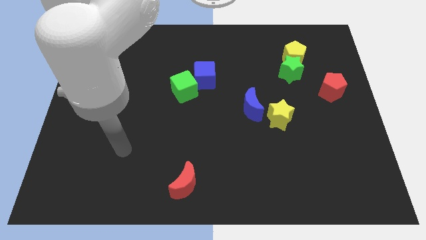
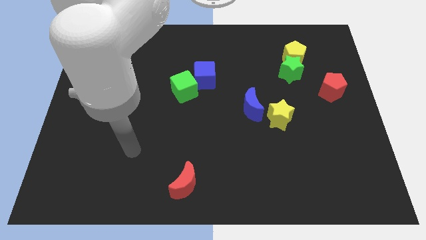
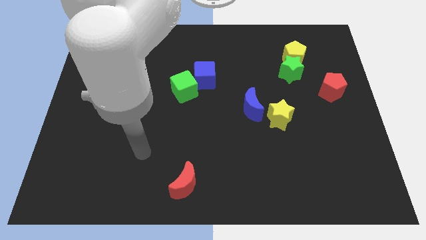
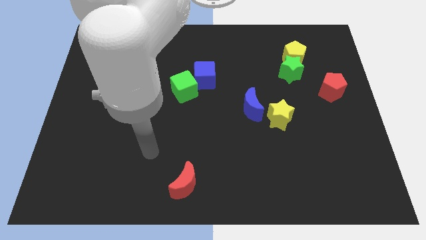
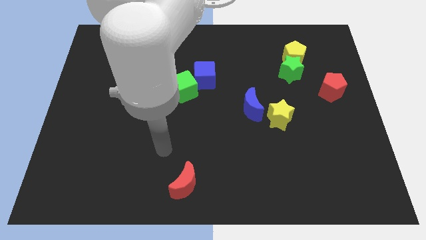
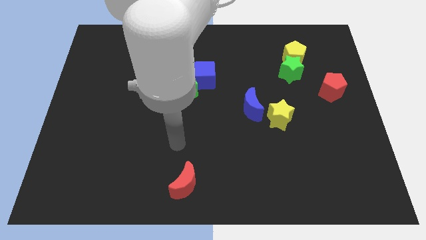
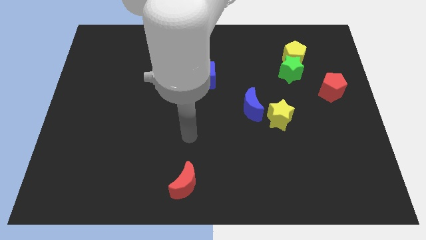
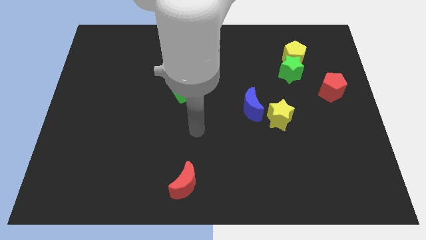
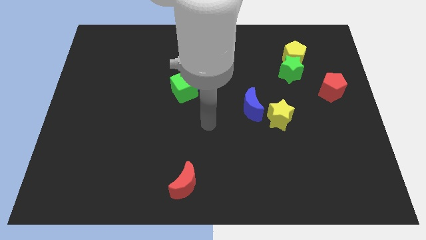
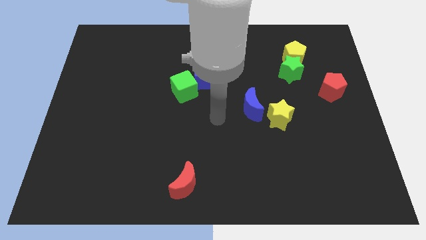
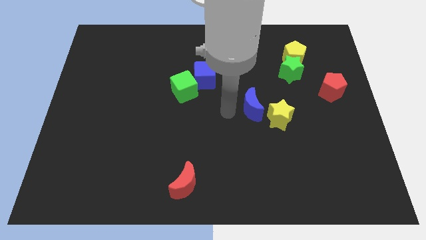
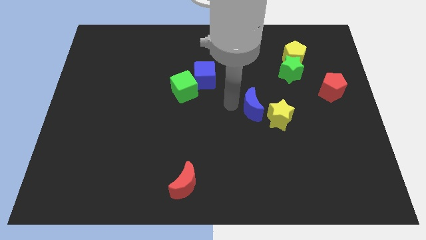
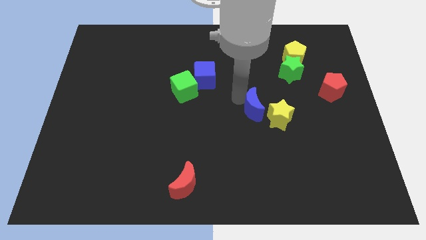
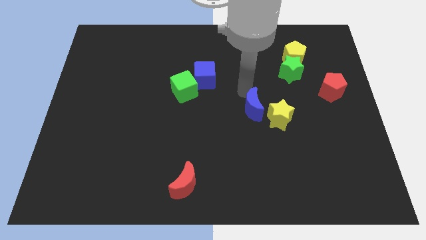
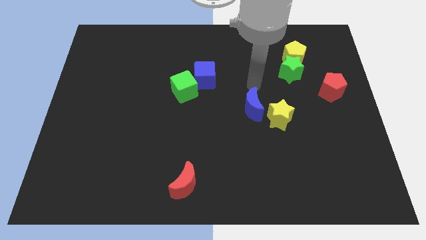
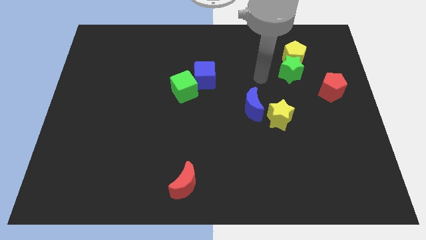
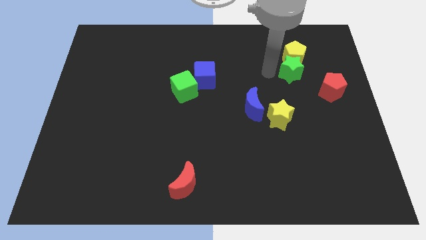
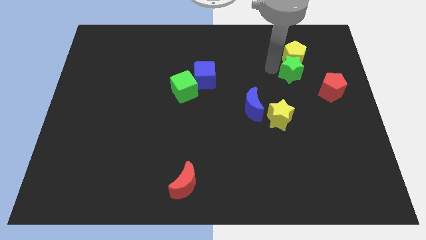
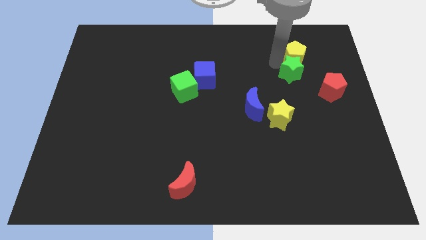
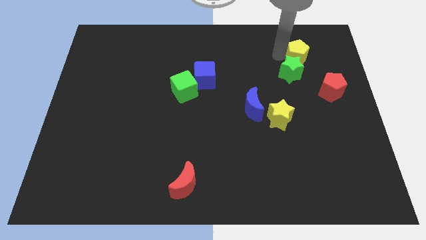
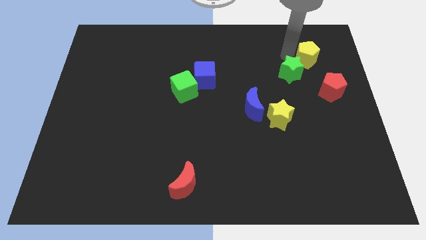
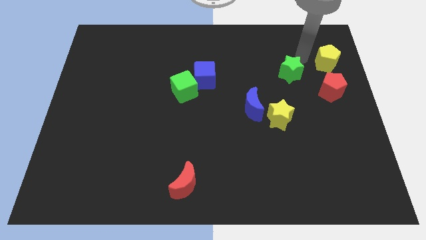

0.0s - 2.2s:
pull the green star apart from the yellow pentagon

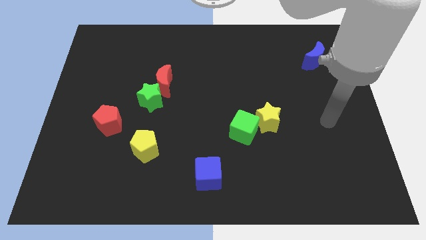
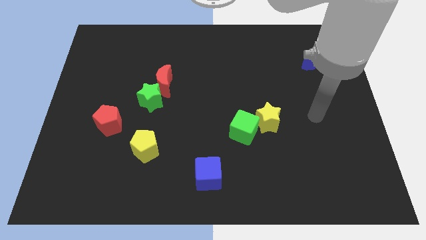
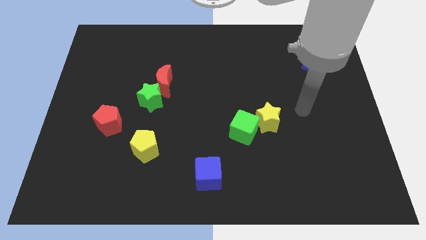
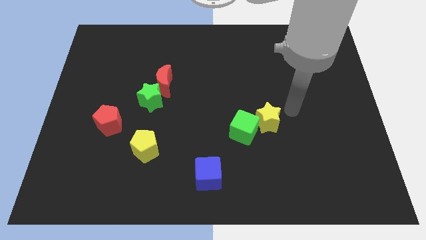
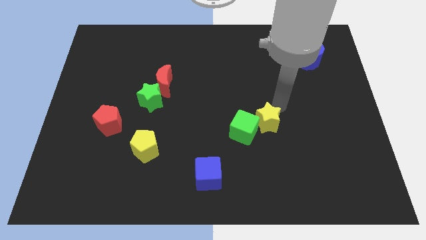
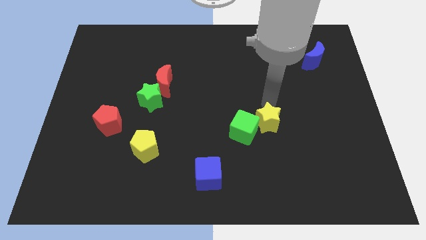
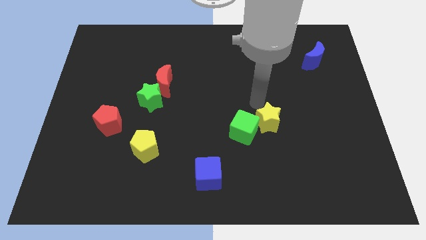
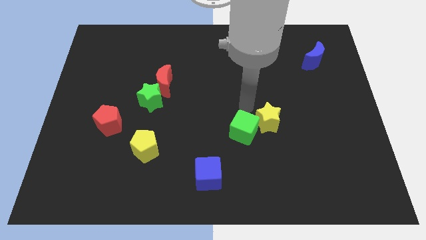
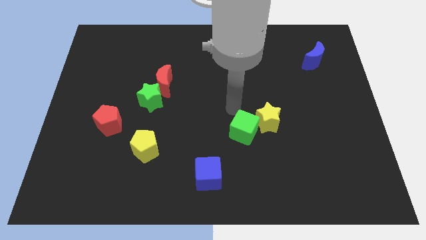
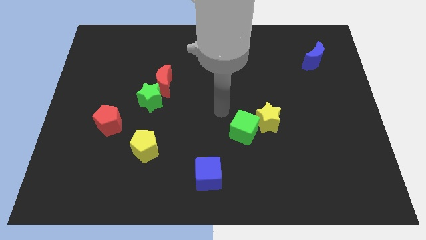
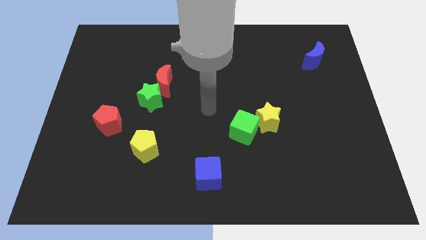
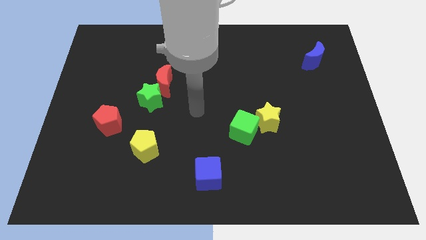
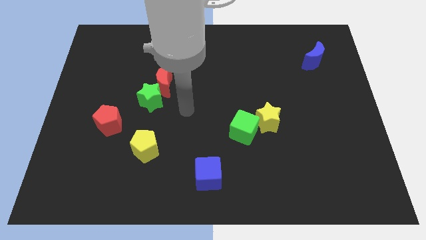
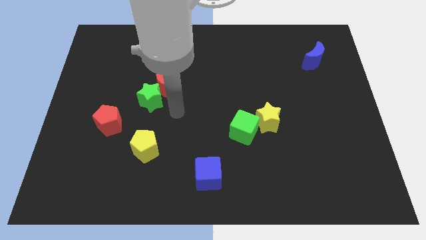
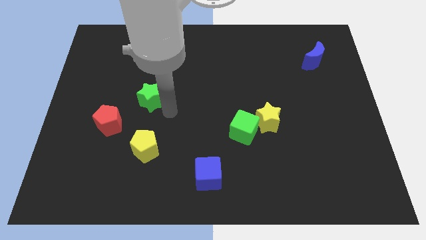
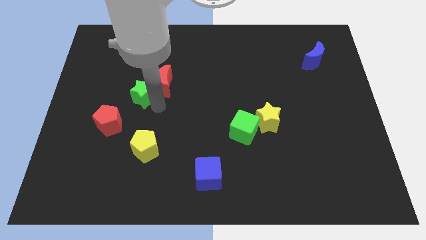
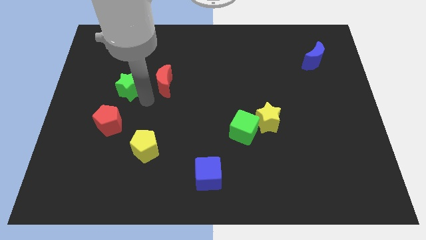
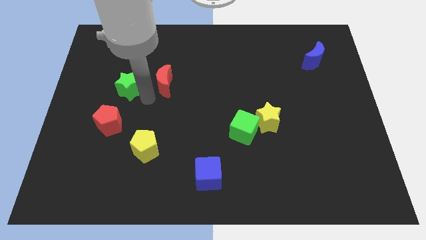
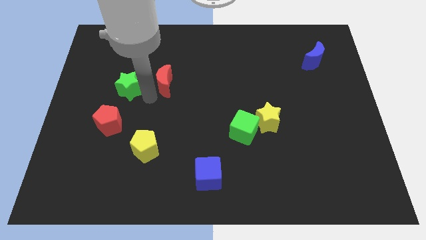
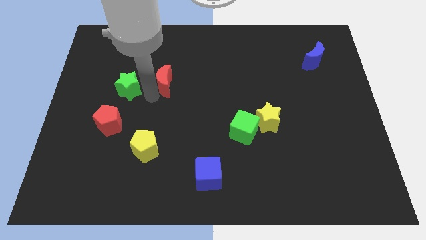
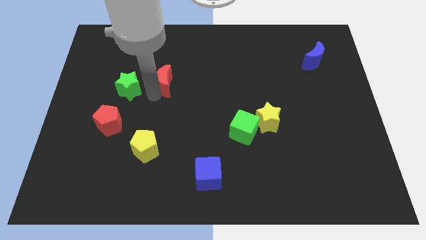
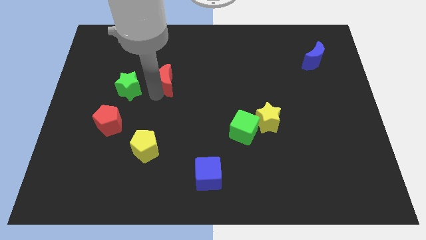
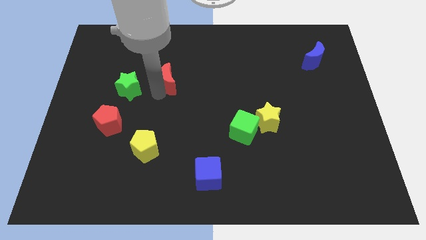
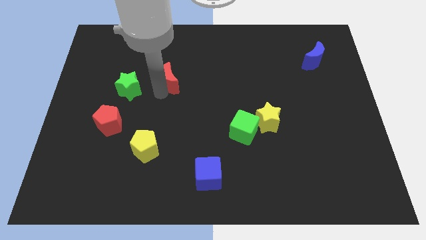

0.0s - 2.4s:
separate the red moon from the green star

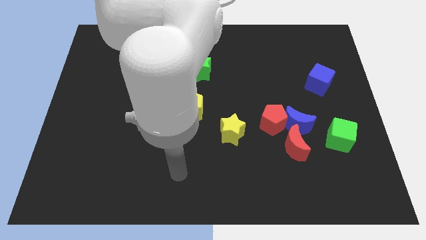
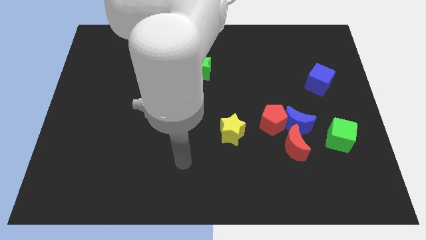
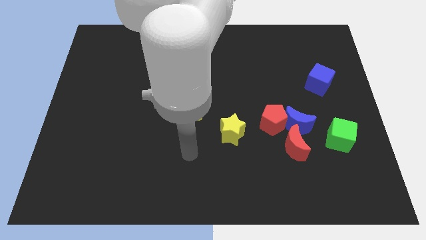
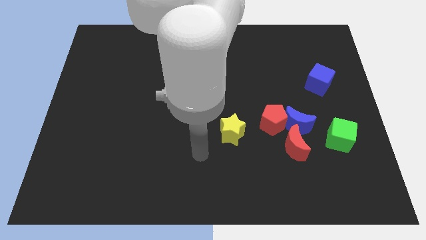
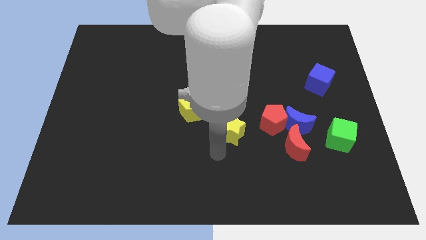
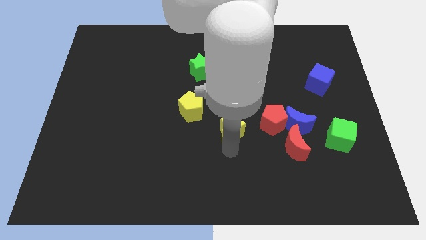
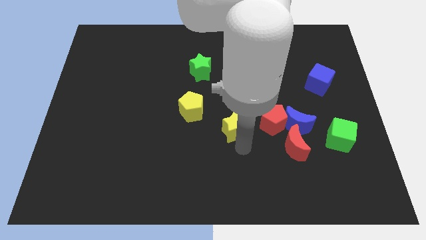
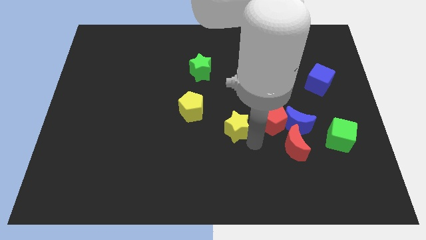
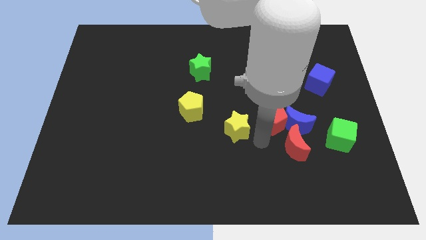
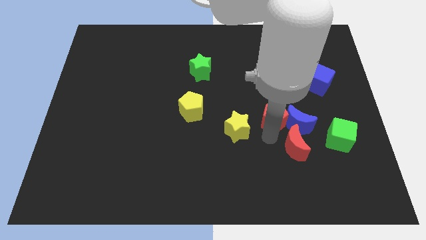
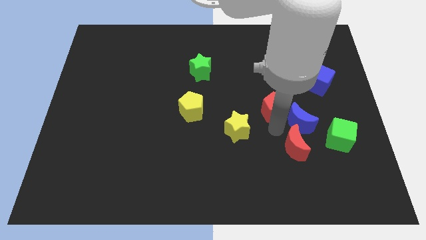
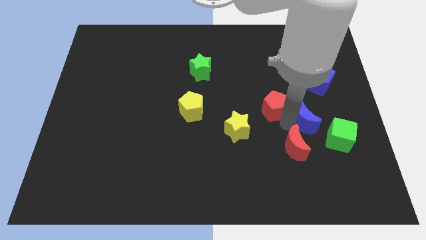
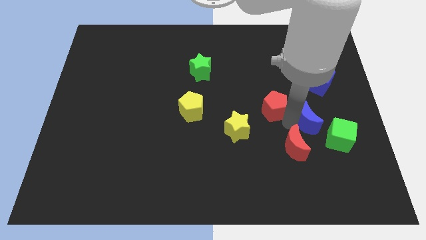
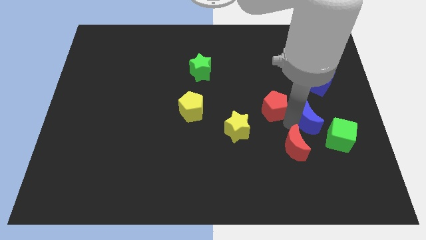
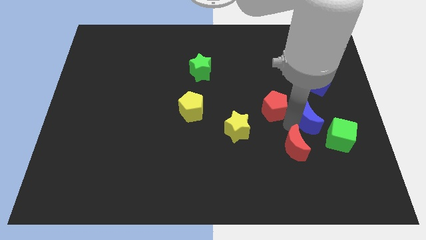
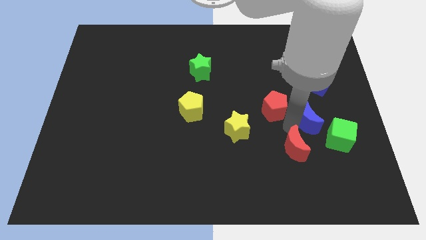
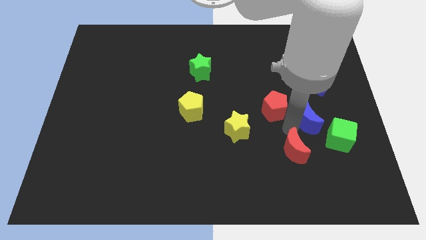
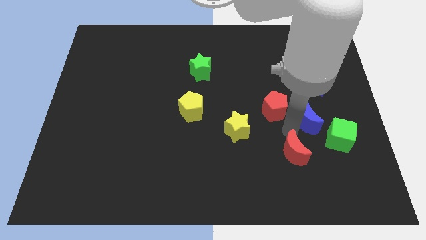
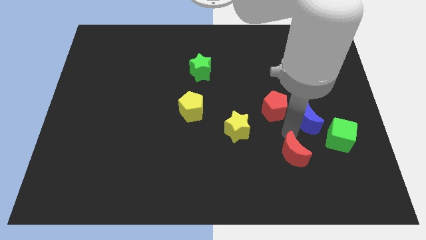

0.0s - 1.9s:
pull the red moon apart from the blue moon and red pentagon

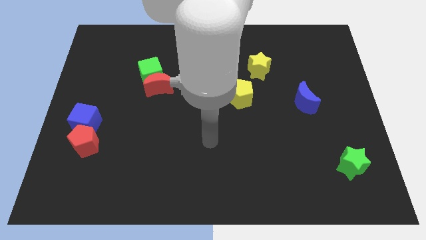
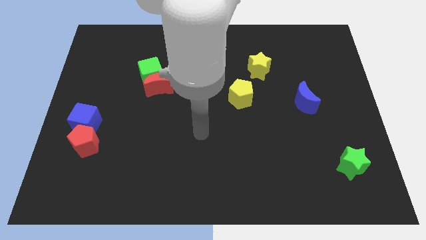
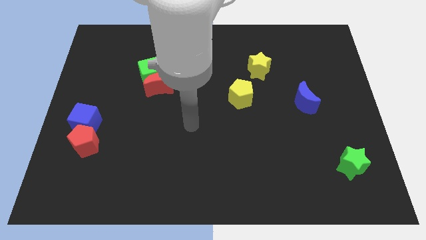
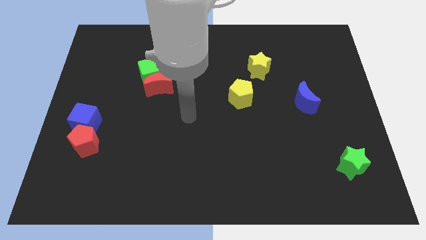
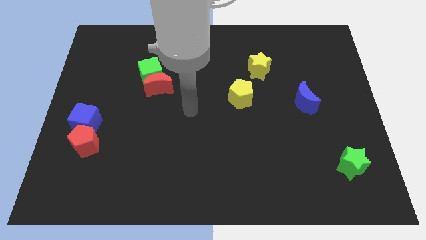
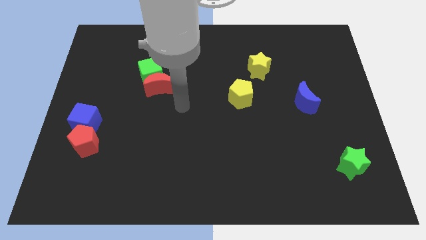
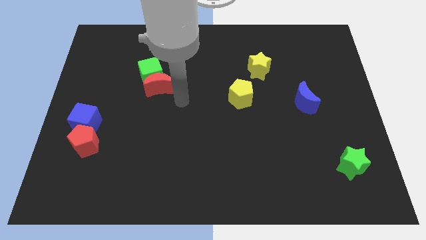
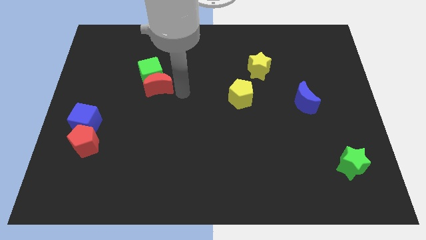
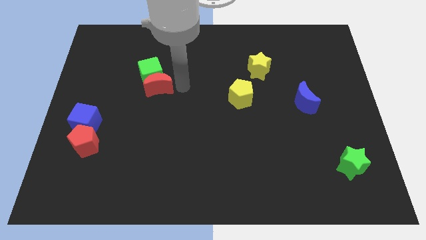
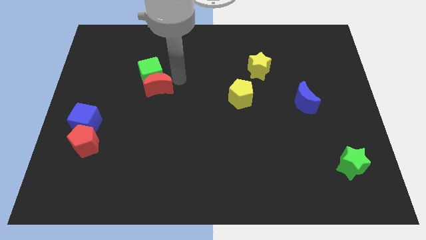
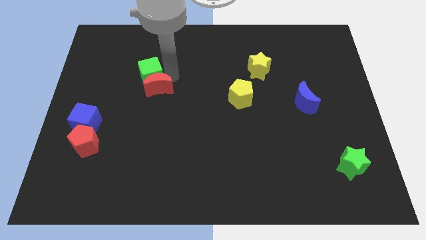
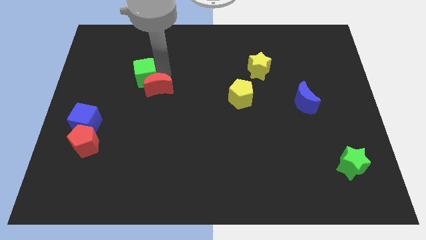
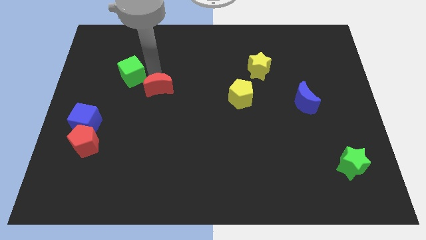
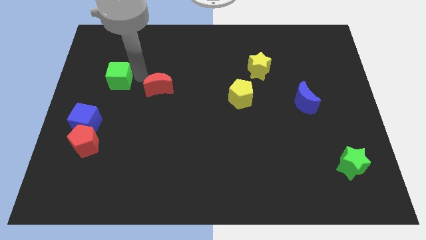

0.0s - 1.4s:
separate the red moon from the green cube

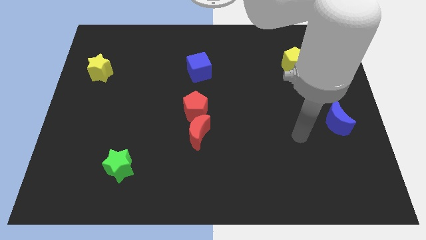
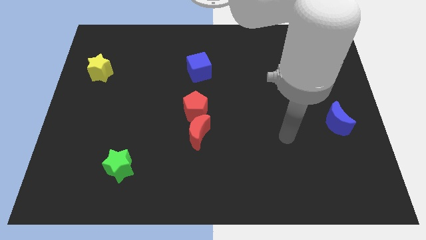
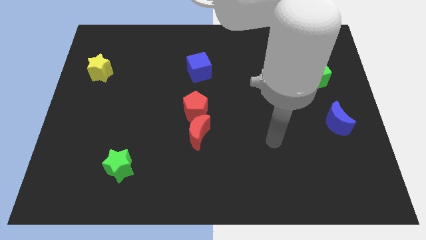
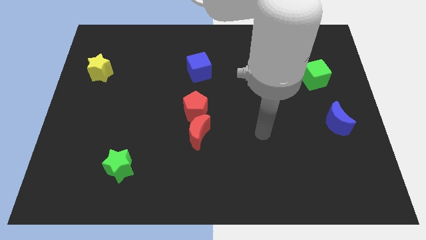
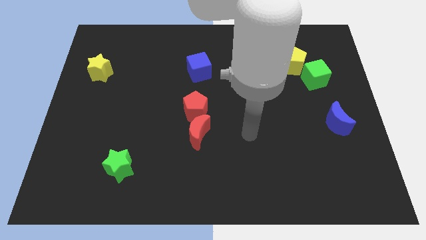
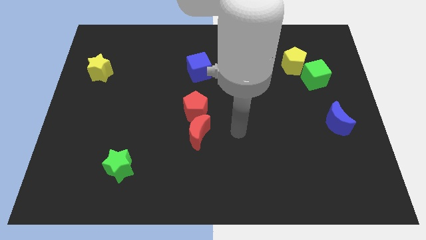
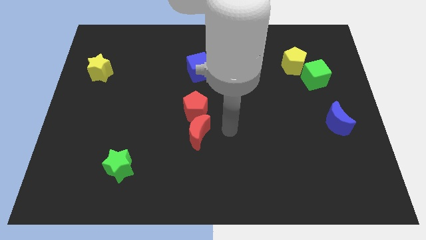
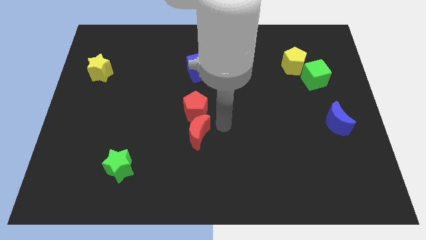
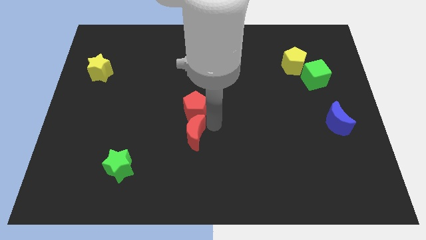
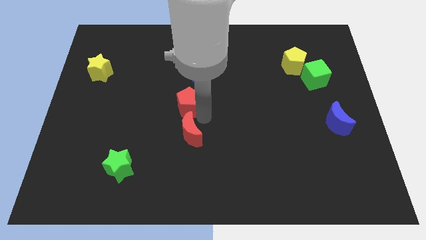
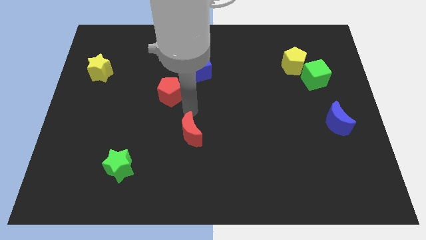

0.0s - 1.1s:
move the red moon away from the red pentagon

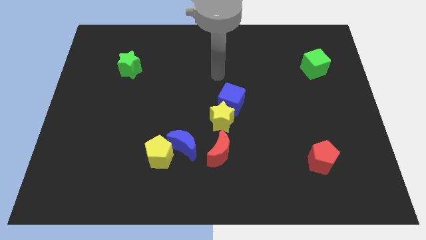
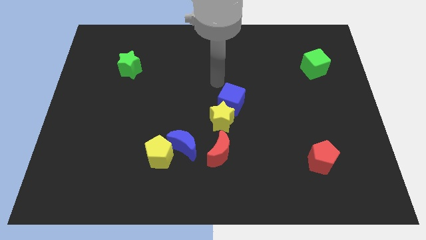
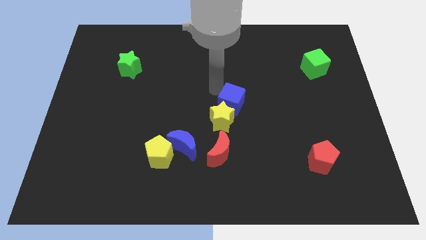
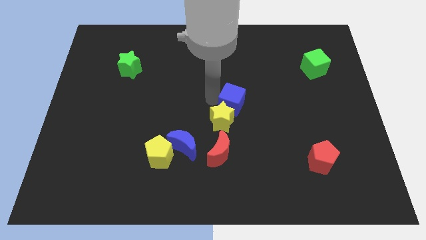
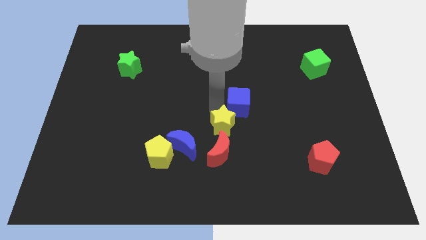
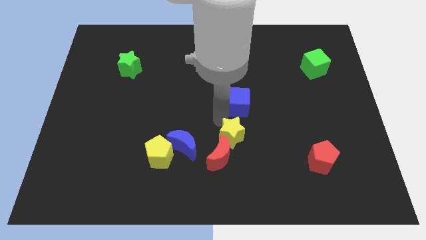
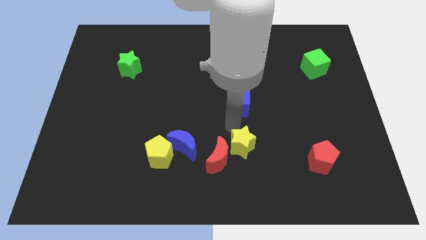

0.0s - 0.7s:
separate the blue cube from the yellow star
